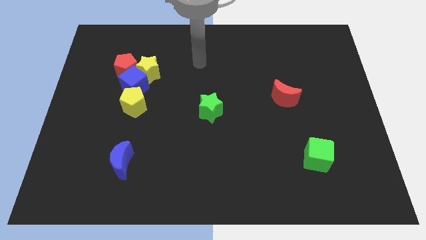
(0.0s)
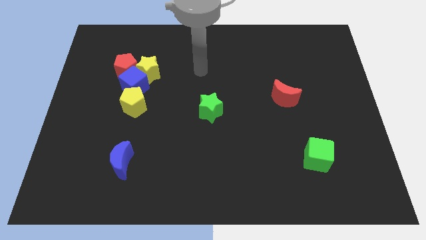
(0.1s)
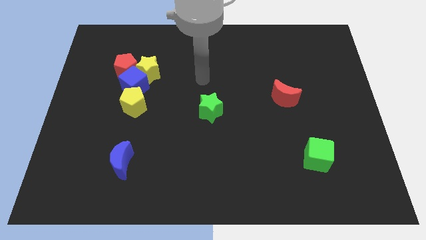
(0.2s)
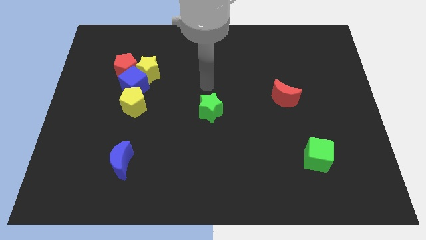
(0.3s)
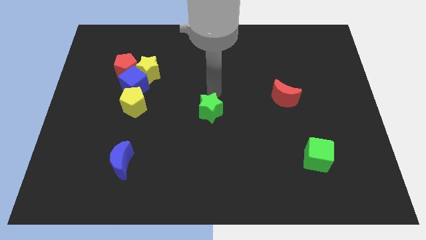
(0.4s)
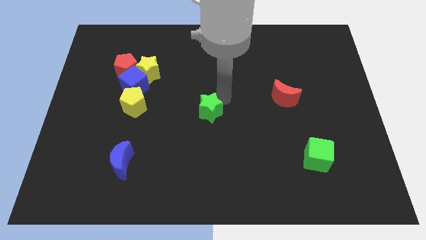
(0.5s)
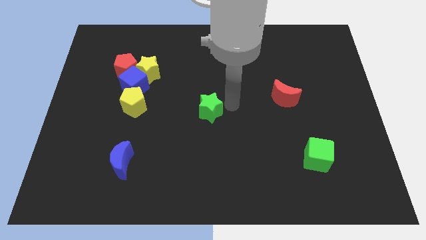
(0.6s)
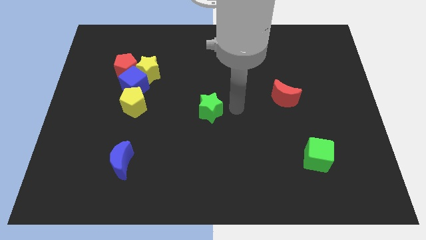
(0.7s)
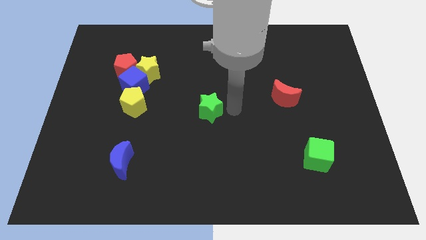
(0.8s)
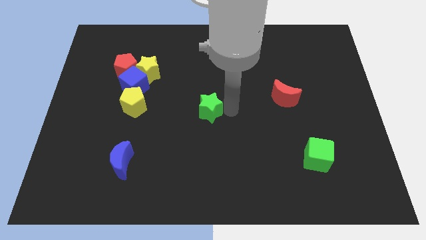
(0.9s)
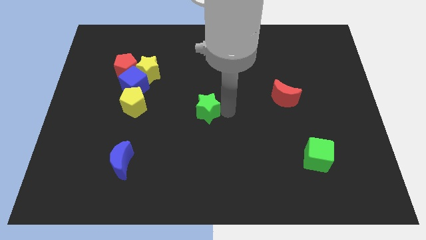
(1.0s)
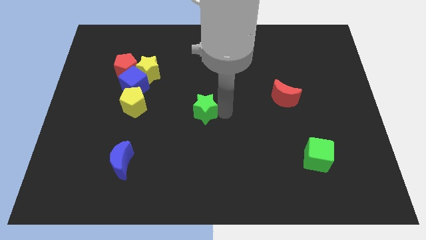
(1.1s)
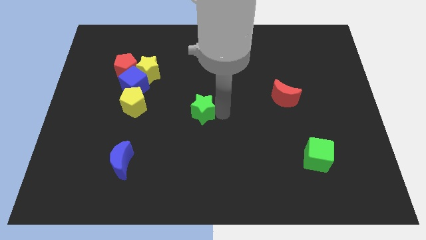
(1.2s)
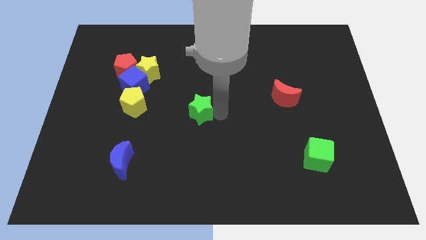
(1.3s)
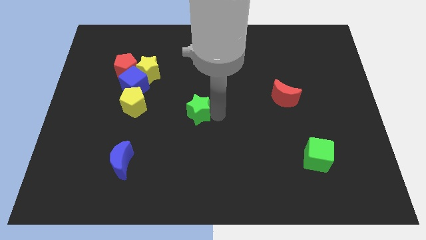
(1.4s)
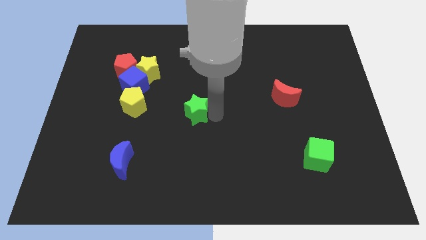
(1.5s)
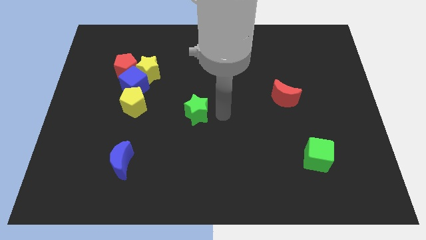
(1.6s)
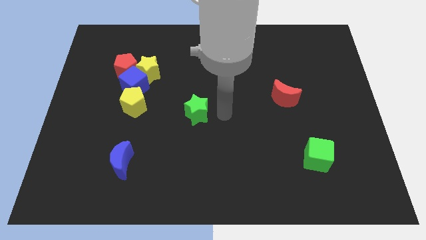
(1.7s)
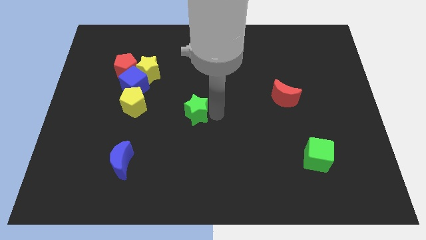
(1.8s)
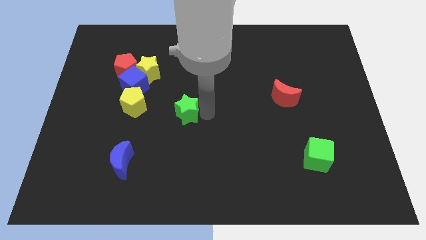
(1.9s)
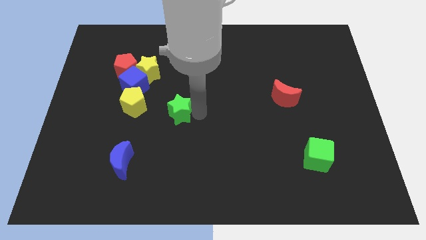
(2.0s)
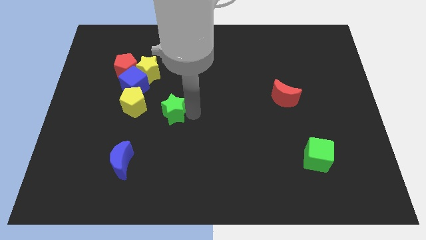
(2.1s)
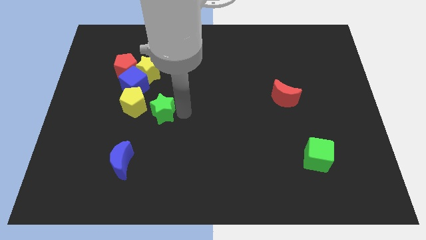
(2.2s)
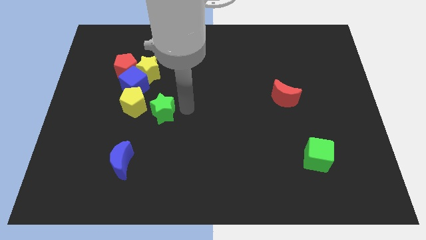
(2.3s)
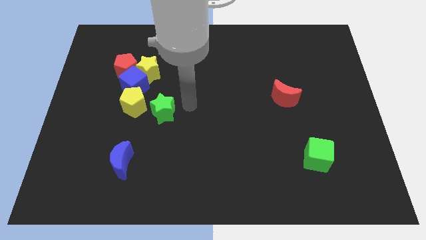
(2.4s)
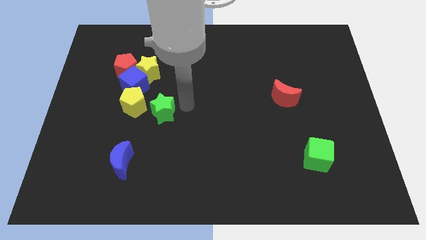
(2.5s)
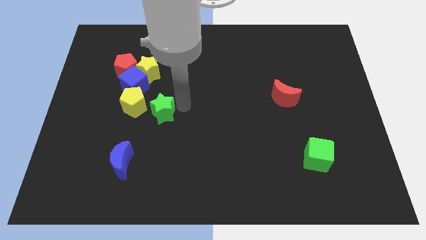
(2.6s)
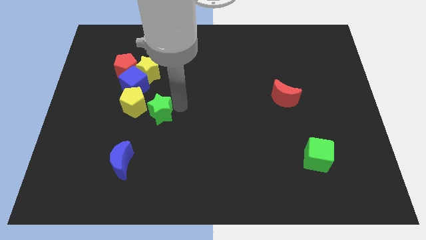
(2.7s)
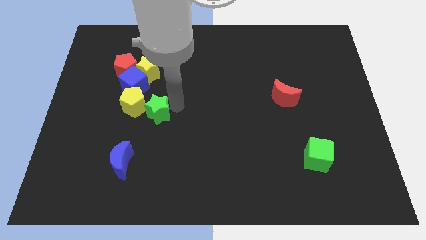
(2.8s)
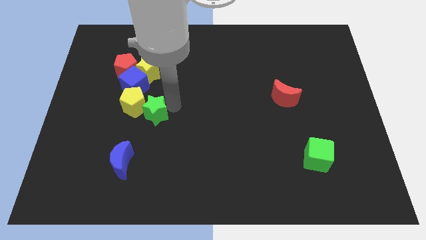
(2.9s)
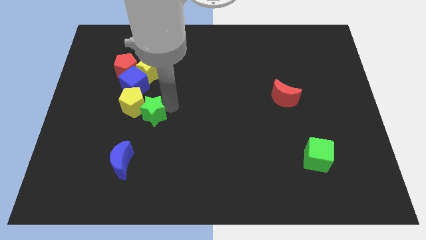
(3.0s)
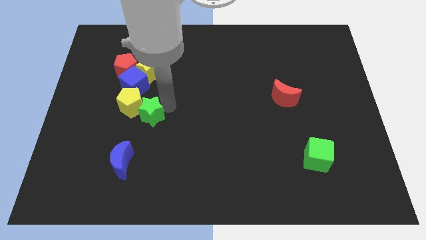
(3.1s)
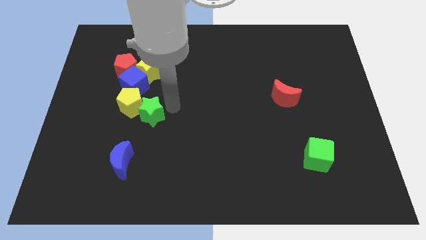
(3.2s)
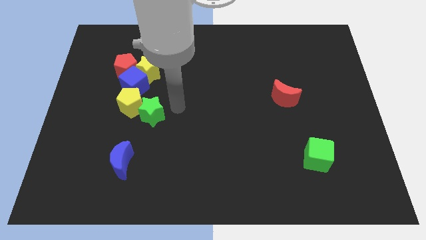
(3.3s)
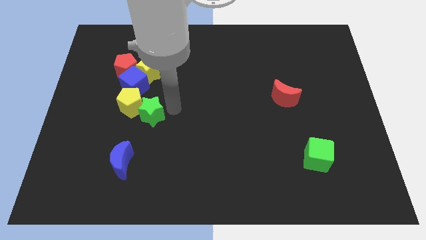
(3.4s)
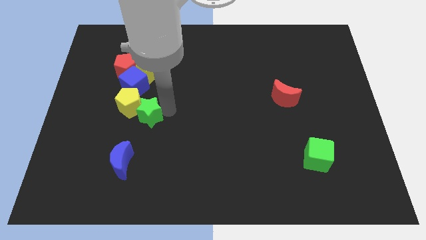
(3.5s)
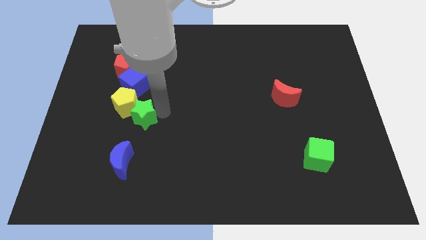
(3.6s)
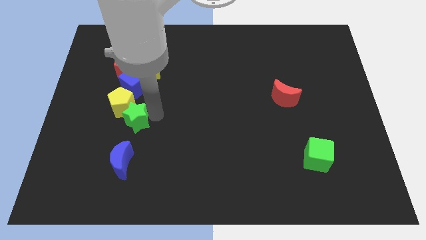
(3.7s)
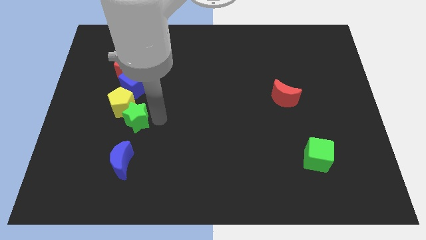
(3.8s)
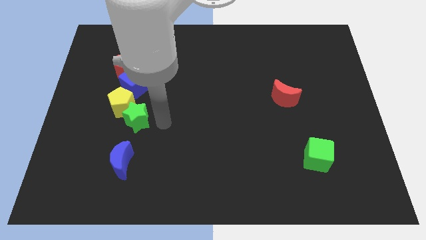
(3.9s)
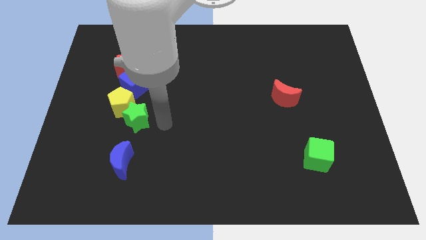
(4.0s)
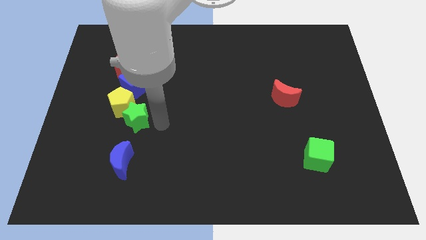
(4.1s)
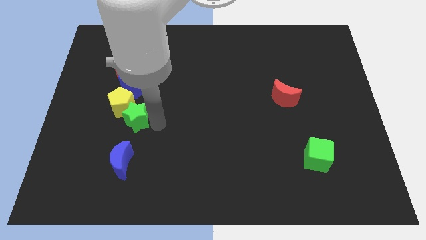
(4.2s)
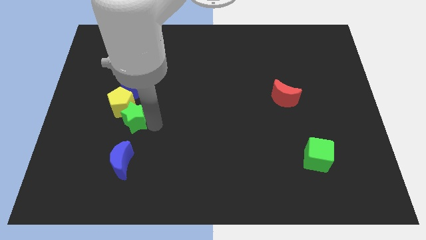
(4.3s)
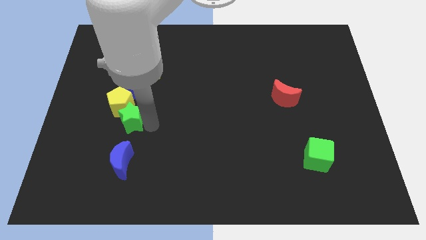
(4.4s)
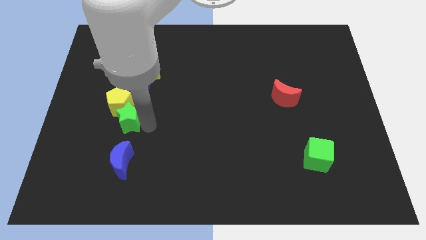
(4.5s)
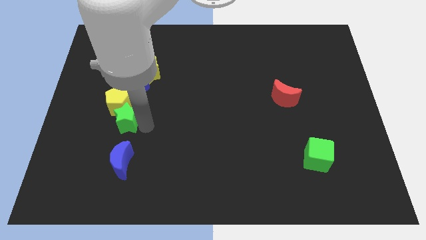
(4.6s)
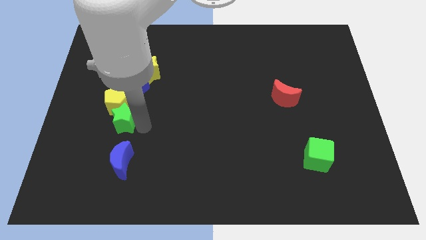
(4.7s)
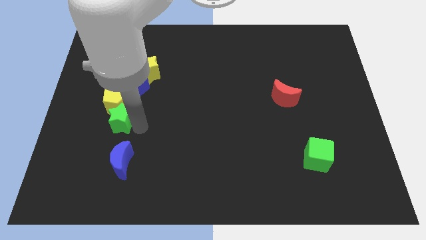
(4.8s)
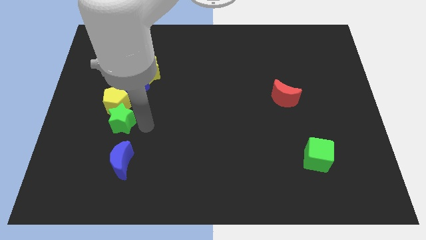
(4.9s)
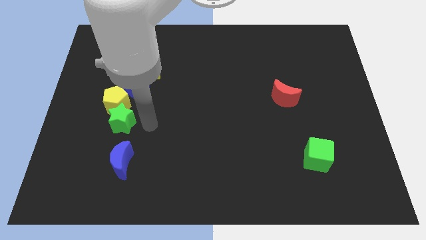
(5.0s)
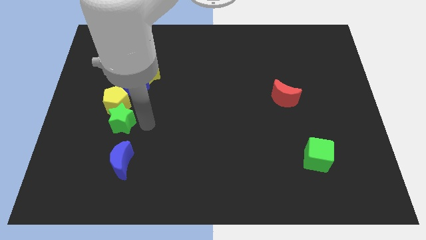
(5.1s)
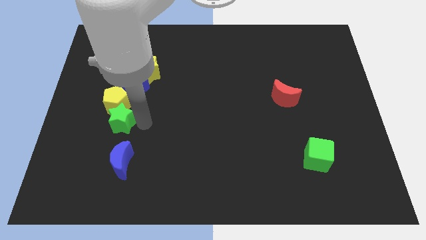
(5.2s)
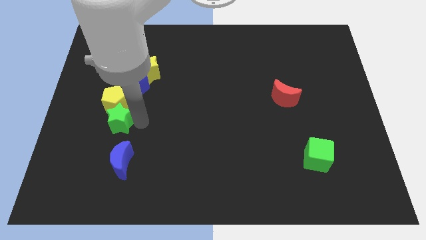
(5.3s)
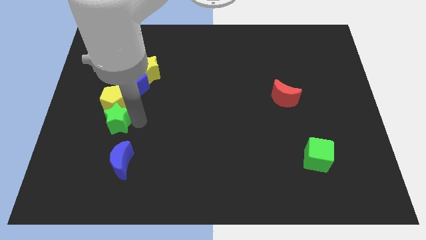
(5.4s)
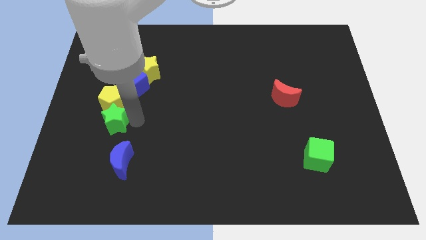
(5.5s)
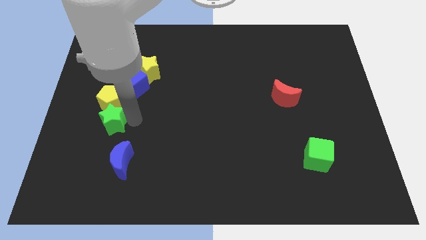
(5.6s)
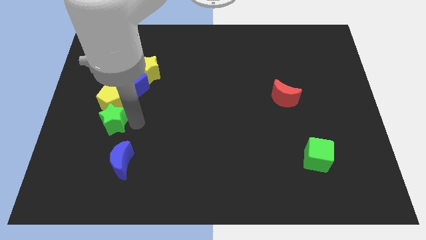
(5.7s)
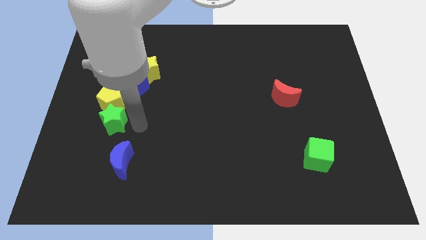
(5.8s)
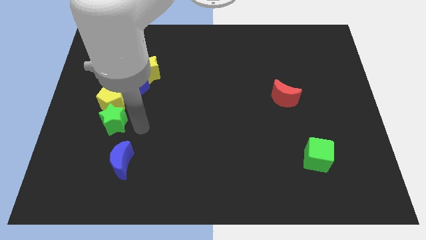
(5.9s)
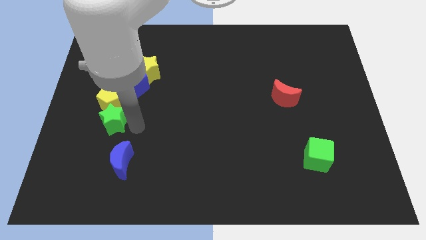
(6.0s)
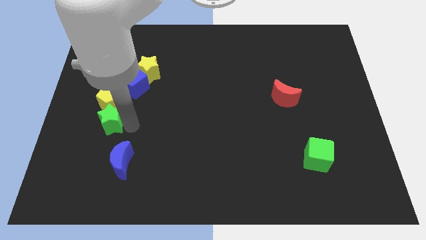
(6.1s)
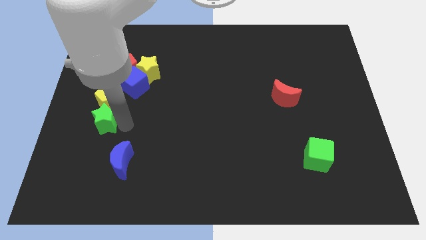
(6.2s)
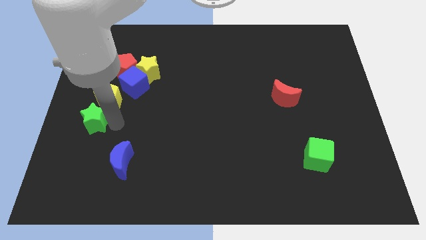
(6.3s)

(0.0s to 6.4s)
slide the green star to the left side

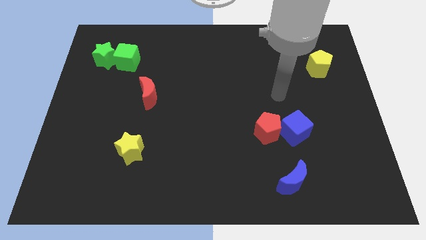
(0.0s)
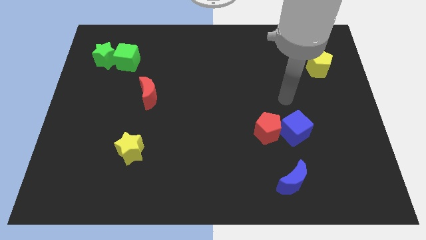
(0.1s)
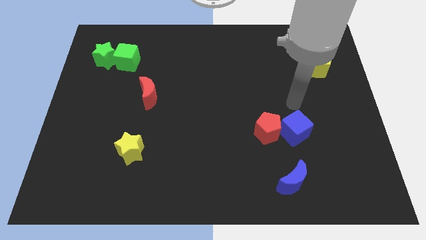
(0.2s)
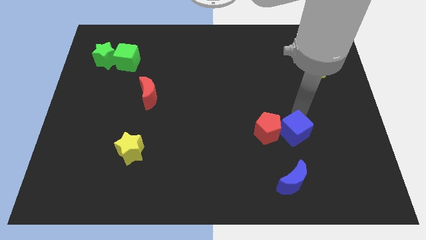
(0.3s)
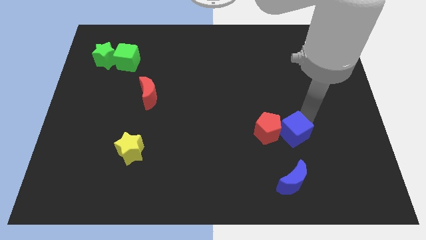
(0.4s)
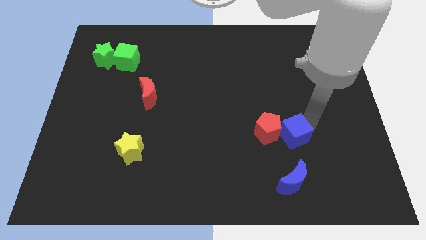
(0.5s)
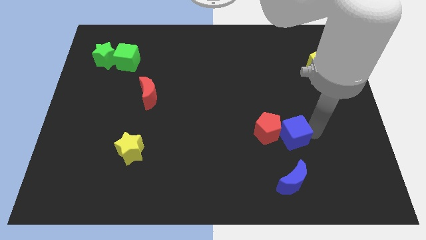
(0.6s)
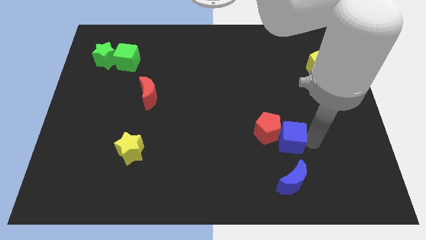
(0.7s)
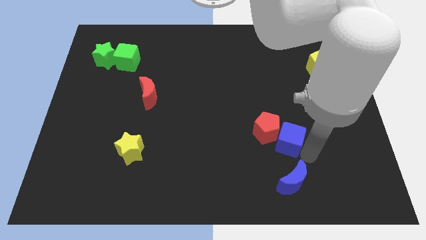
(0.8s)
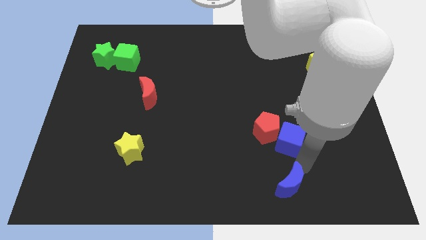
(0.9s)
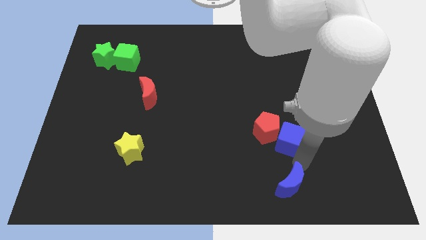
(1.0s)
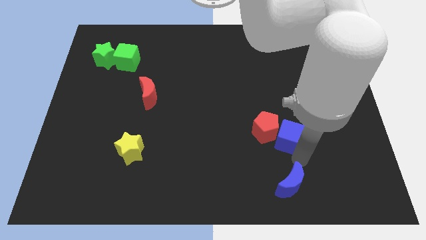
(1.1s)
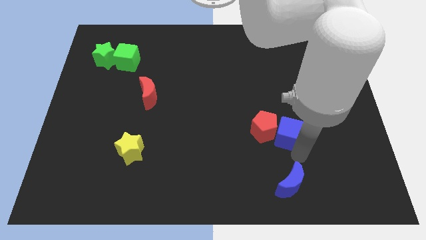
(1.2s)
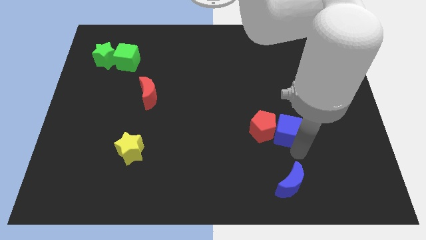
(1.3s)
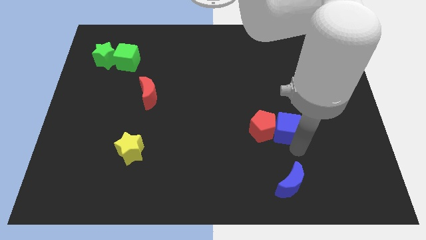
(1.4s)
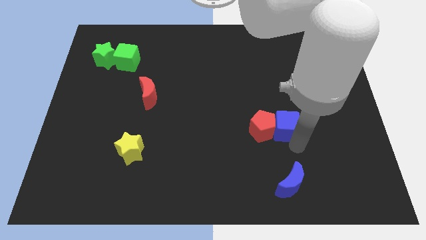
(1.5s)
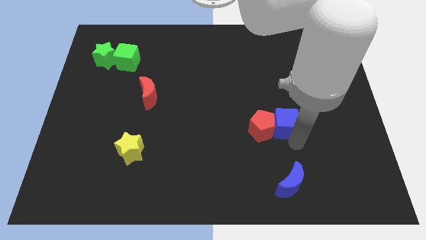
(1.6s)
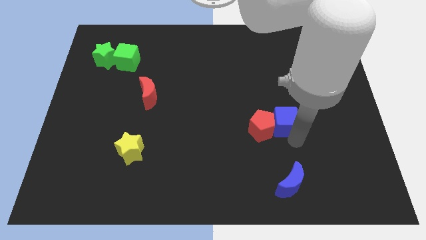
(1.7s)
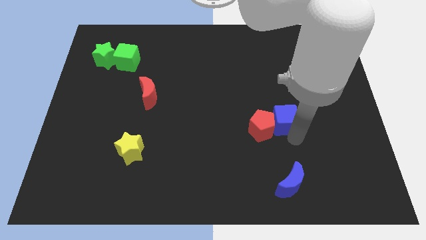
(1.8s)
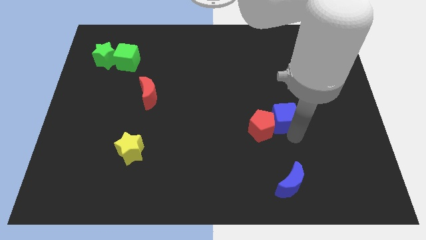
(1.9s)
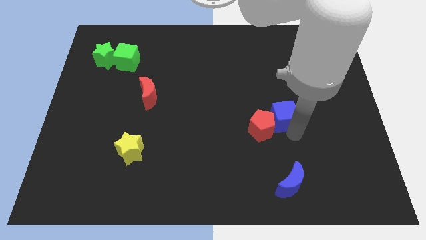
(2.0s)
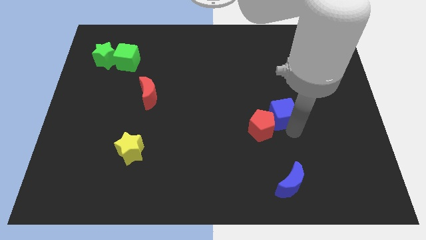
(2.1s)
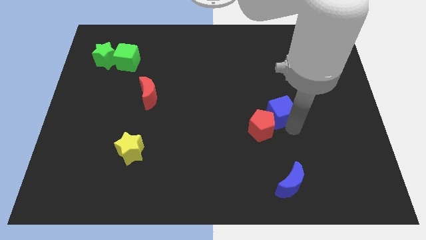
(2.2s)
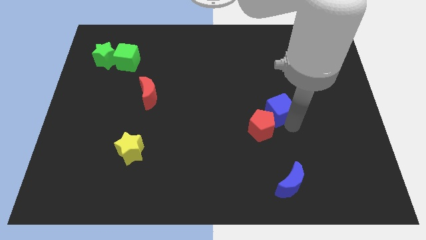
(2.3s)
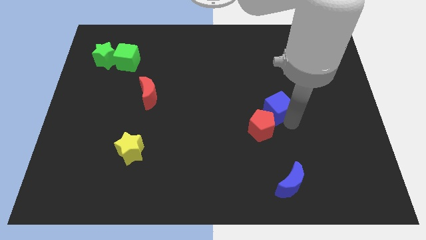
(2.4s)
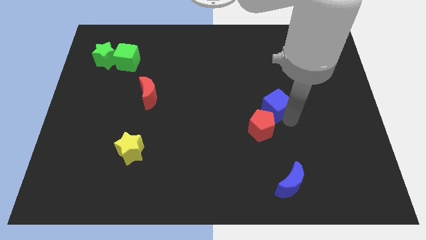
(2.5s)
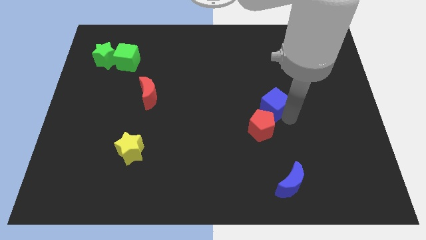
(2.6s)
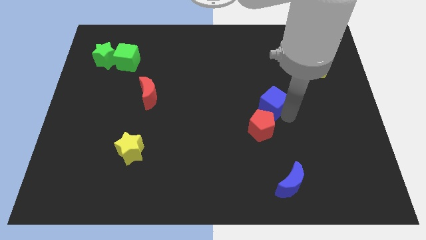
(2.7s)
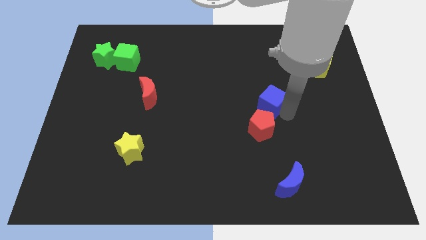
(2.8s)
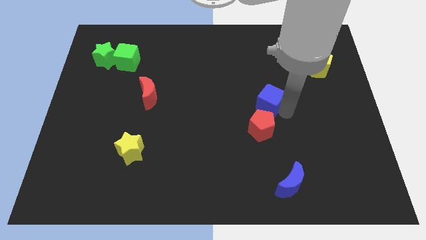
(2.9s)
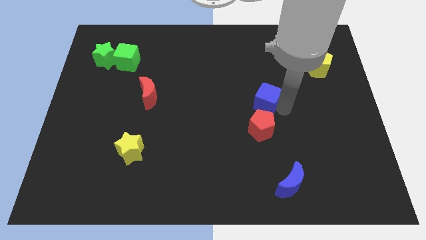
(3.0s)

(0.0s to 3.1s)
push the blue cube to the center
